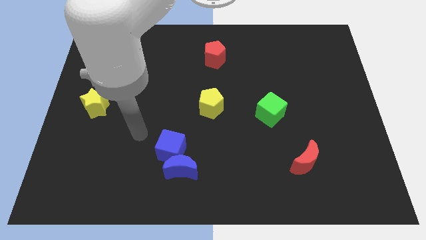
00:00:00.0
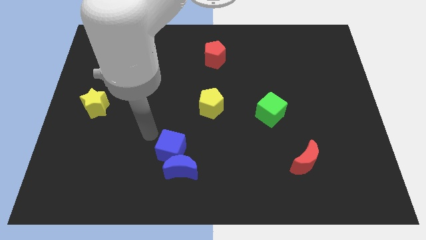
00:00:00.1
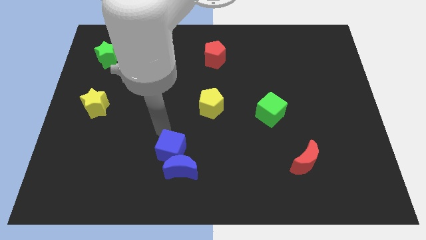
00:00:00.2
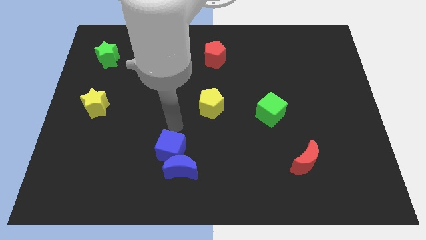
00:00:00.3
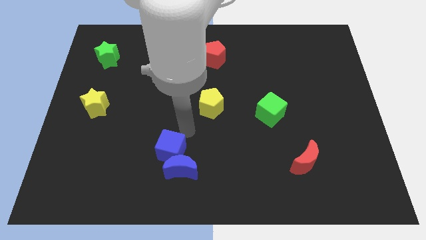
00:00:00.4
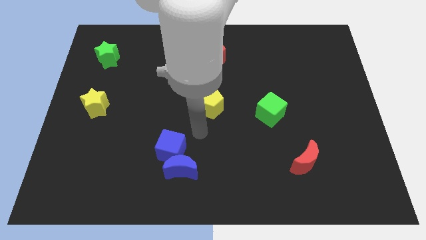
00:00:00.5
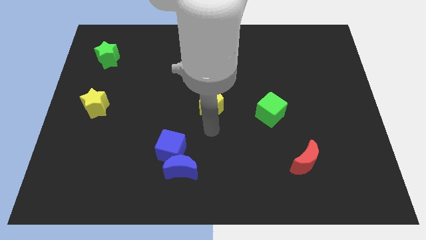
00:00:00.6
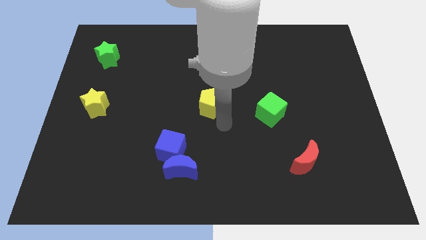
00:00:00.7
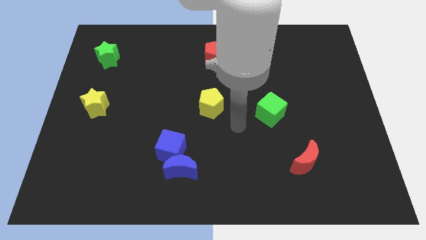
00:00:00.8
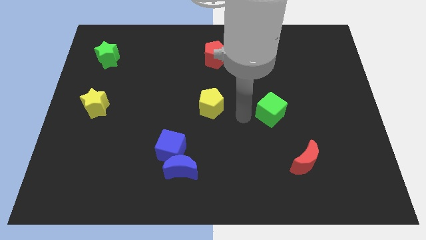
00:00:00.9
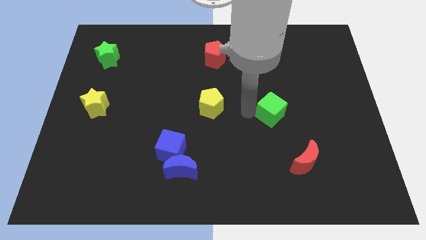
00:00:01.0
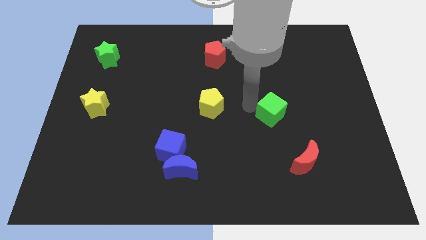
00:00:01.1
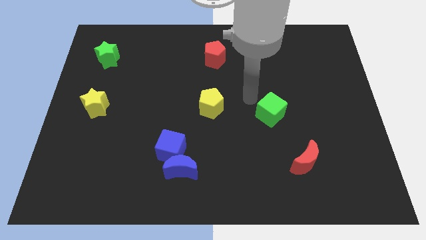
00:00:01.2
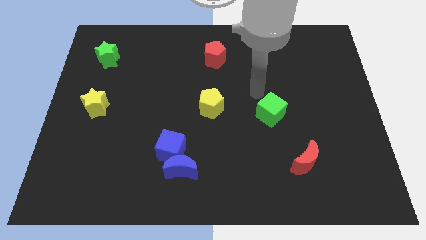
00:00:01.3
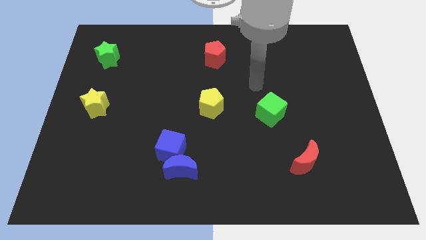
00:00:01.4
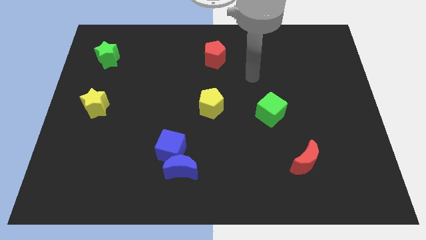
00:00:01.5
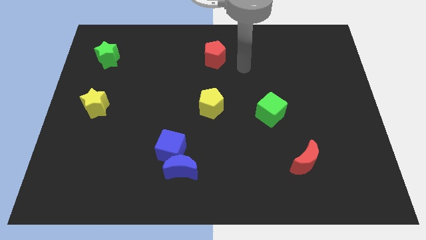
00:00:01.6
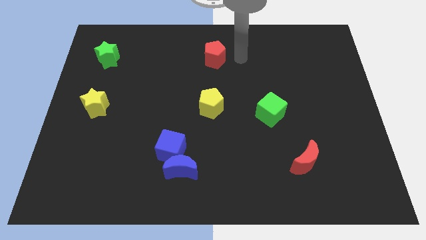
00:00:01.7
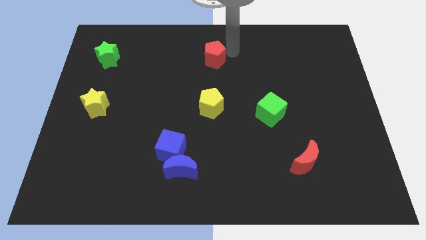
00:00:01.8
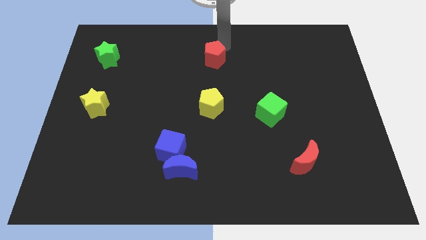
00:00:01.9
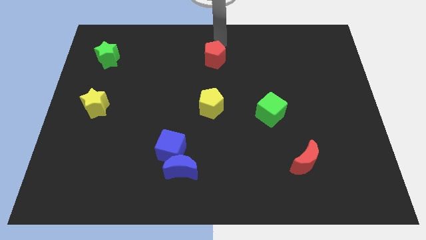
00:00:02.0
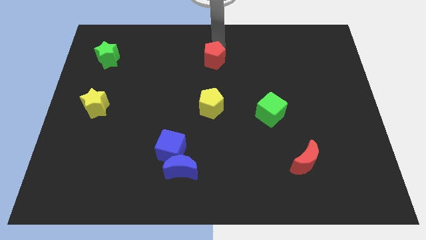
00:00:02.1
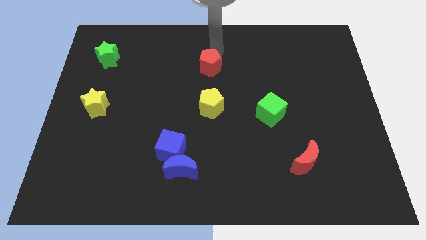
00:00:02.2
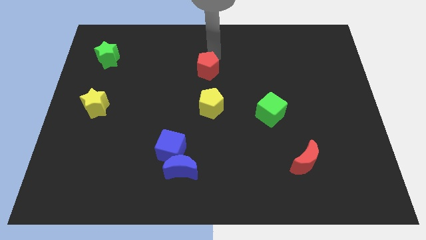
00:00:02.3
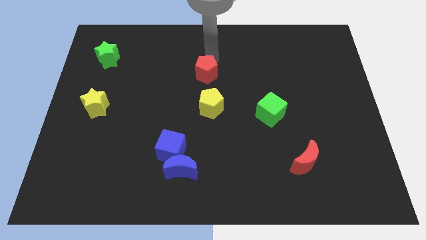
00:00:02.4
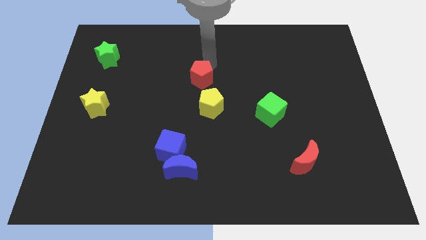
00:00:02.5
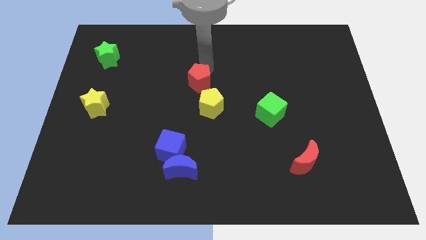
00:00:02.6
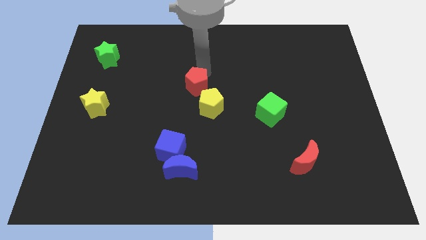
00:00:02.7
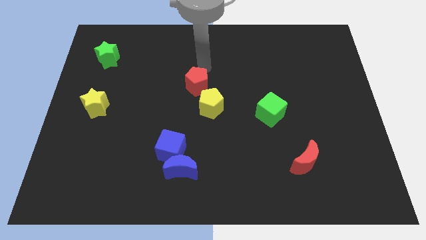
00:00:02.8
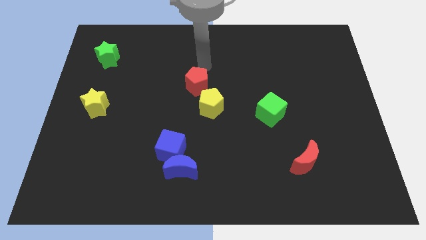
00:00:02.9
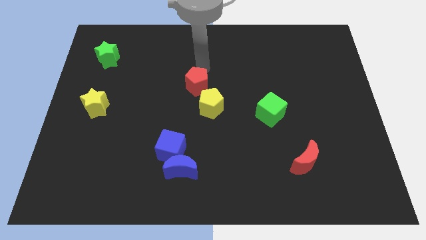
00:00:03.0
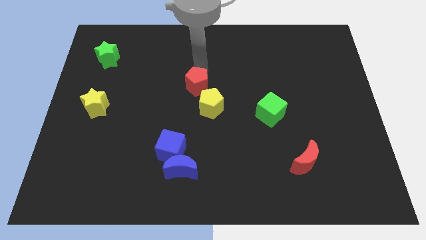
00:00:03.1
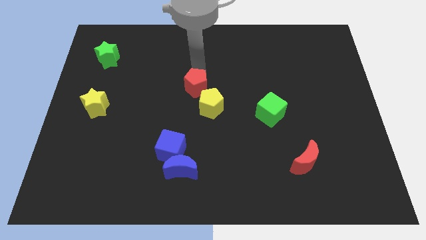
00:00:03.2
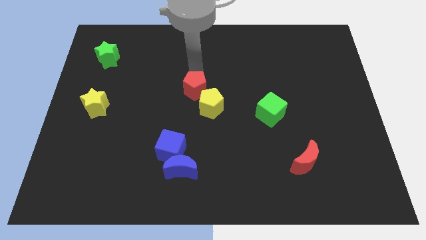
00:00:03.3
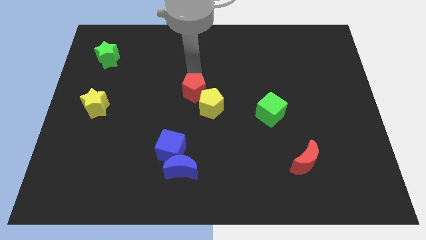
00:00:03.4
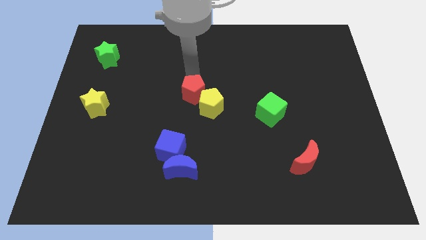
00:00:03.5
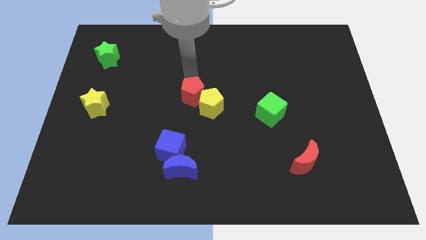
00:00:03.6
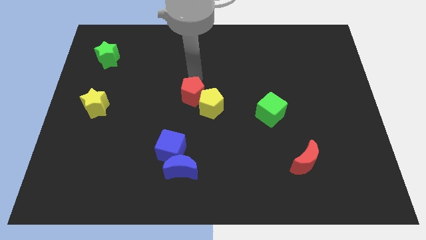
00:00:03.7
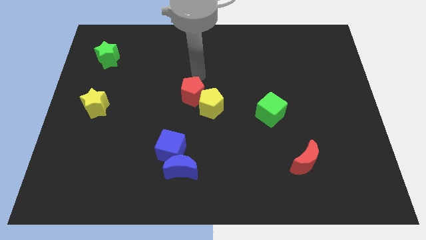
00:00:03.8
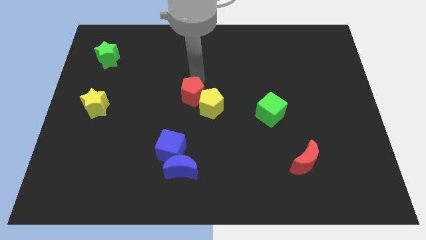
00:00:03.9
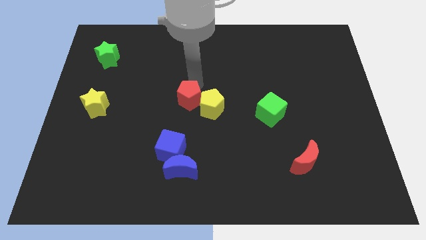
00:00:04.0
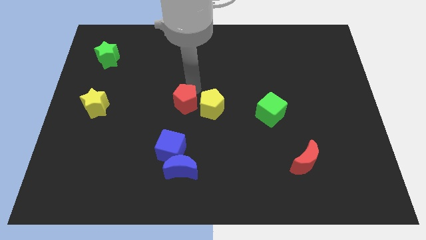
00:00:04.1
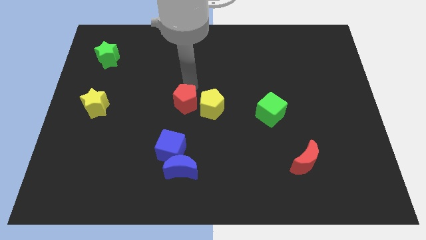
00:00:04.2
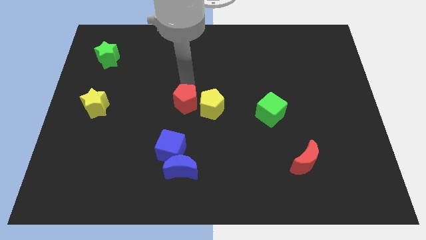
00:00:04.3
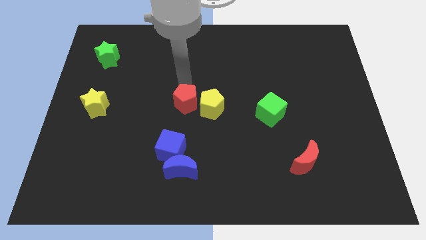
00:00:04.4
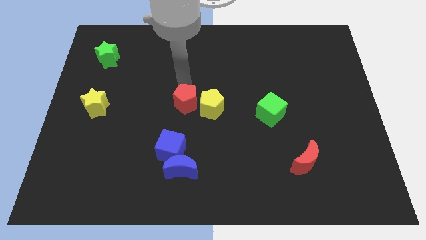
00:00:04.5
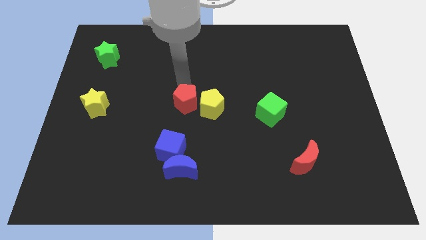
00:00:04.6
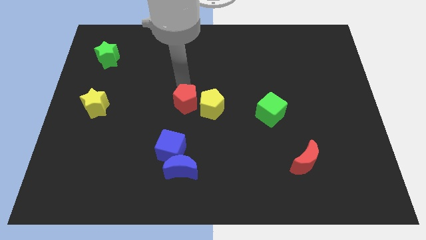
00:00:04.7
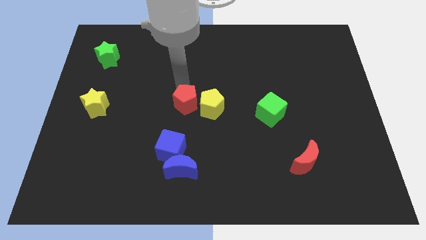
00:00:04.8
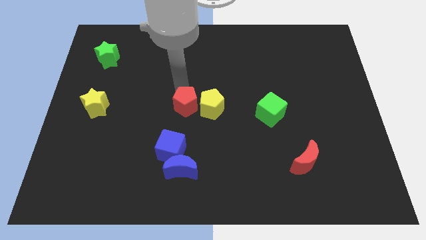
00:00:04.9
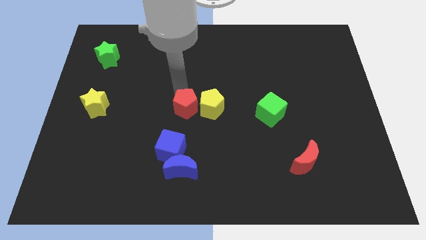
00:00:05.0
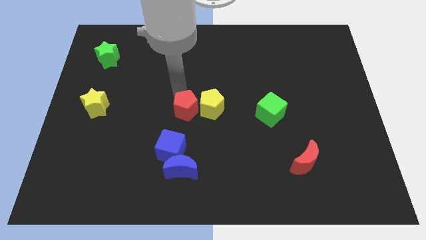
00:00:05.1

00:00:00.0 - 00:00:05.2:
push the red pentagon to the top of the blue moon

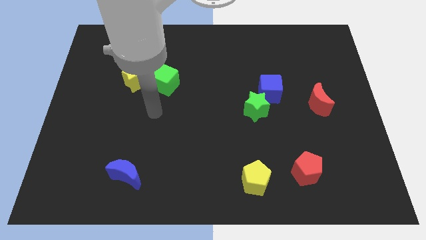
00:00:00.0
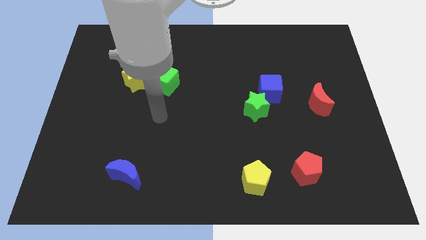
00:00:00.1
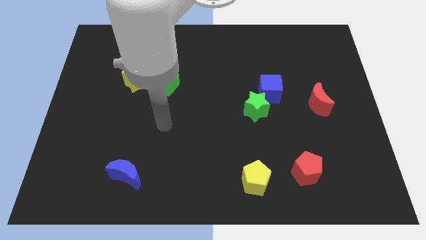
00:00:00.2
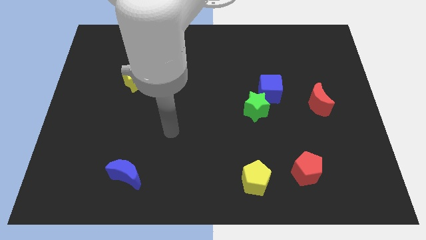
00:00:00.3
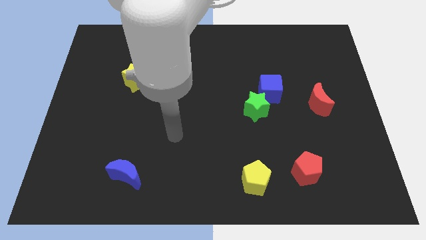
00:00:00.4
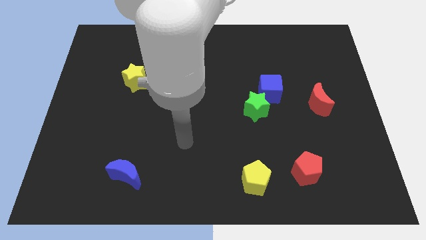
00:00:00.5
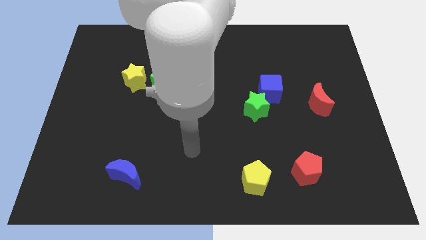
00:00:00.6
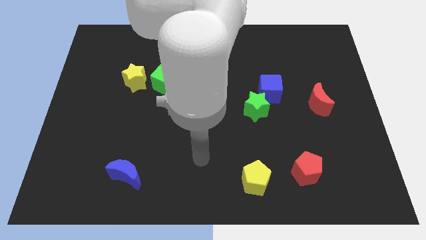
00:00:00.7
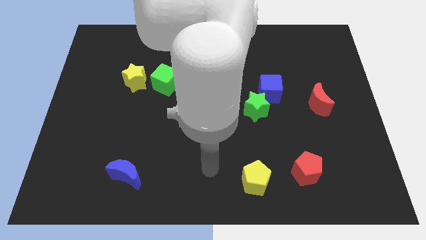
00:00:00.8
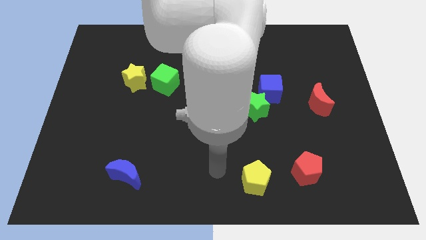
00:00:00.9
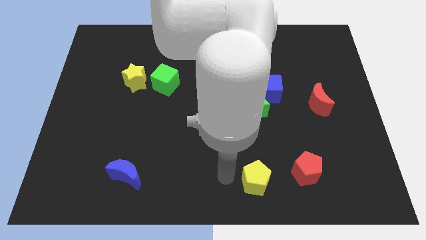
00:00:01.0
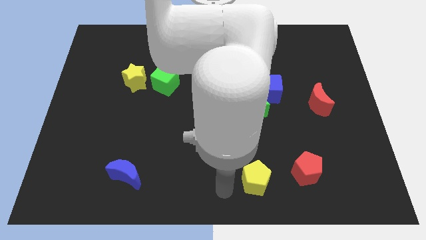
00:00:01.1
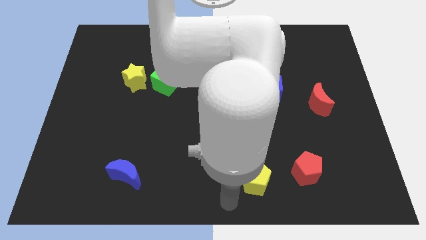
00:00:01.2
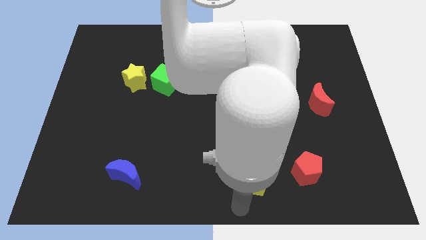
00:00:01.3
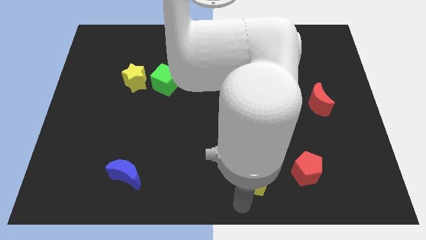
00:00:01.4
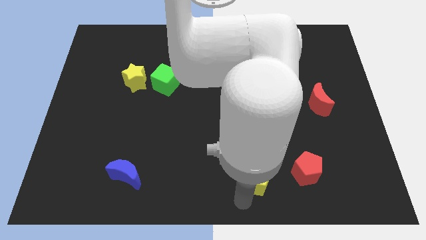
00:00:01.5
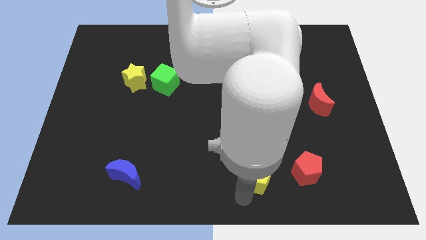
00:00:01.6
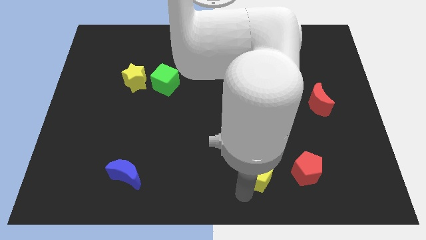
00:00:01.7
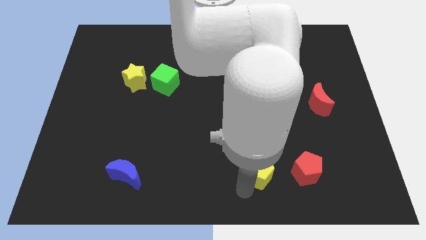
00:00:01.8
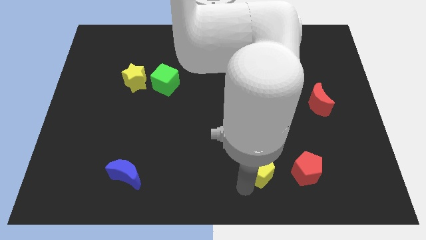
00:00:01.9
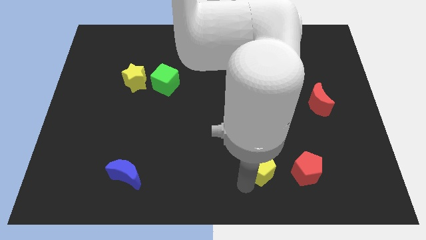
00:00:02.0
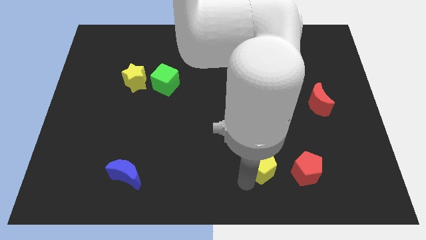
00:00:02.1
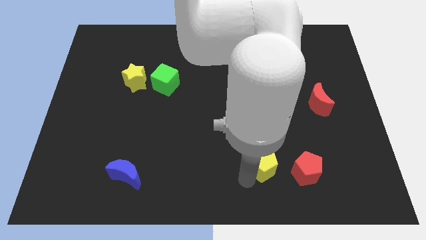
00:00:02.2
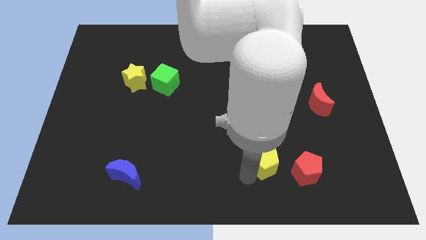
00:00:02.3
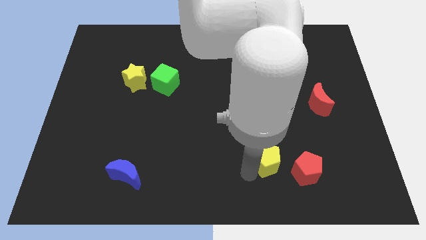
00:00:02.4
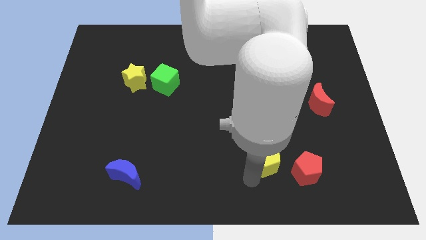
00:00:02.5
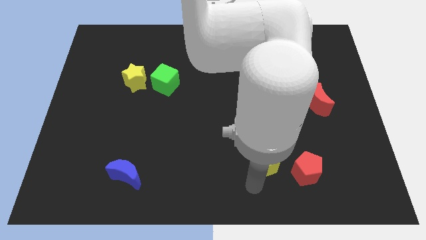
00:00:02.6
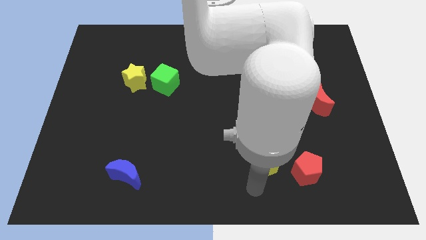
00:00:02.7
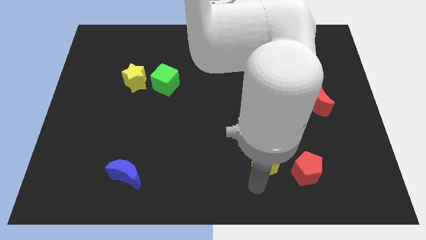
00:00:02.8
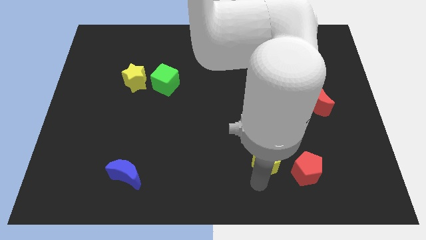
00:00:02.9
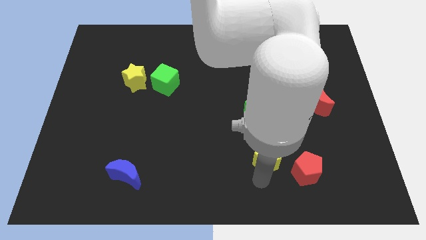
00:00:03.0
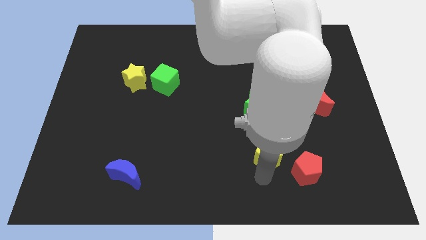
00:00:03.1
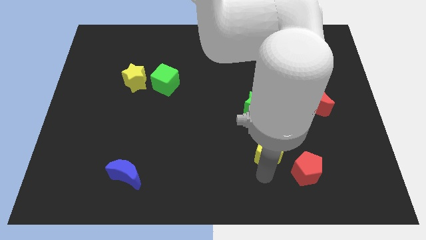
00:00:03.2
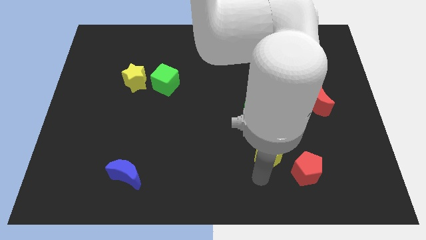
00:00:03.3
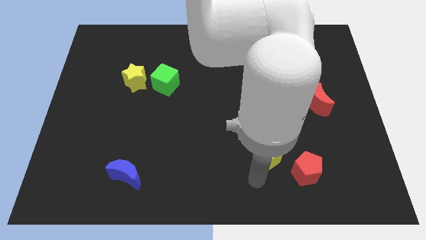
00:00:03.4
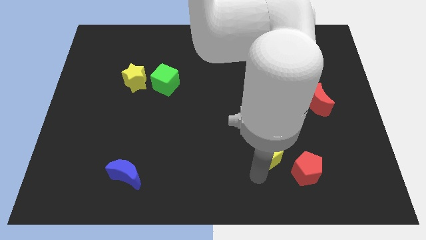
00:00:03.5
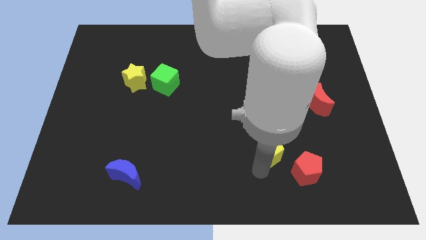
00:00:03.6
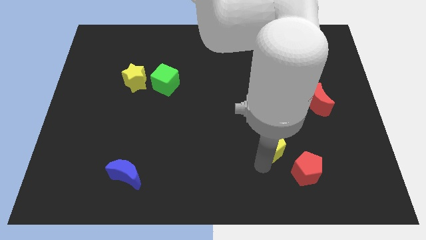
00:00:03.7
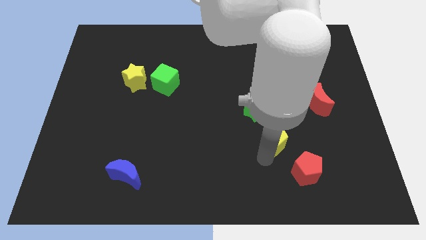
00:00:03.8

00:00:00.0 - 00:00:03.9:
put the yellow pentagon to the bottom right of the green star
